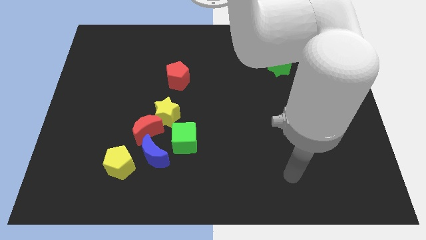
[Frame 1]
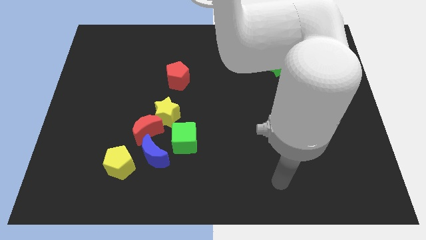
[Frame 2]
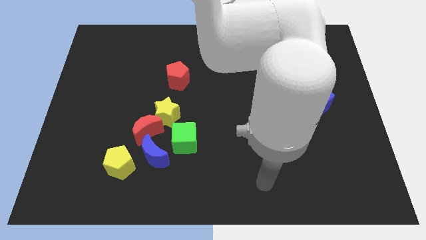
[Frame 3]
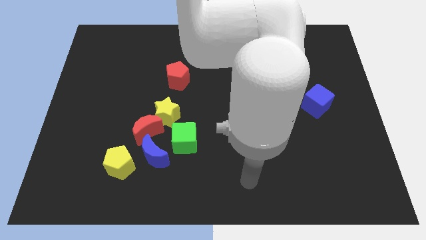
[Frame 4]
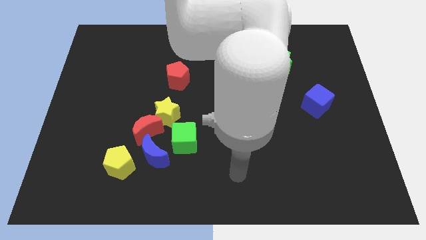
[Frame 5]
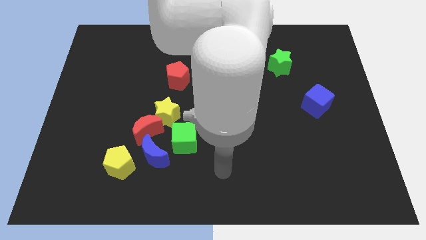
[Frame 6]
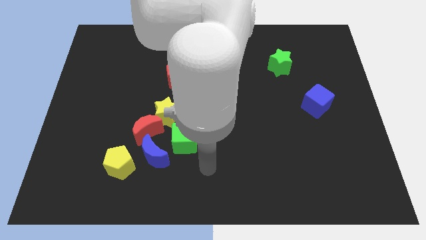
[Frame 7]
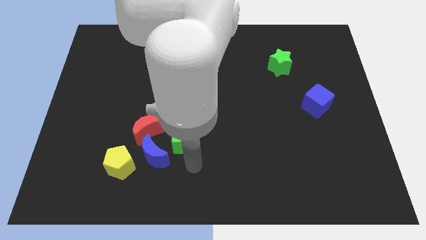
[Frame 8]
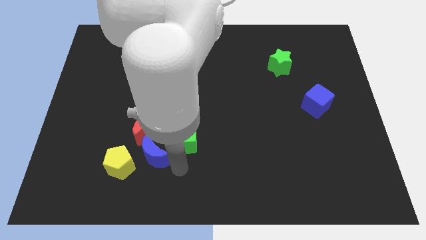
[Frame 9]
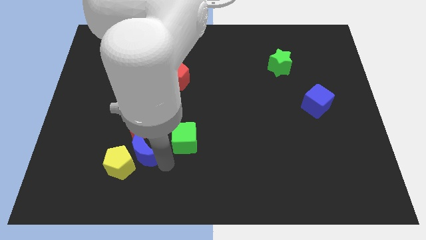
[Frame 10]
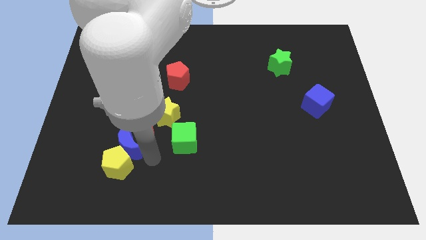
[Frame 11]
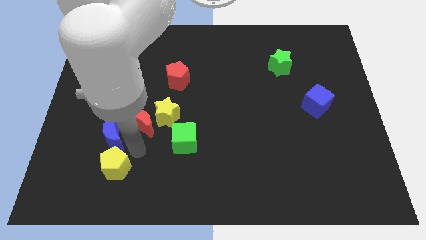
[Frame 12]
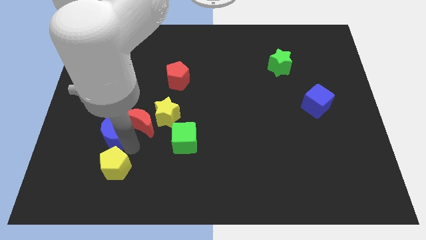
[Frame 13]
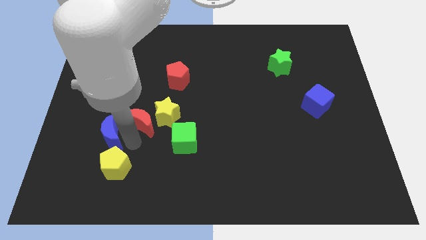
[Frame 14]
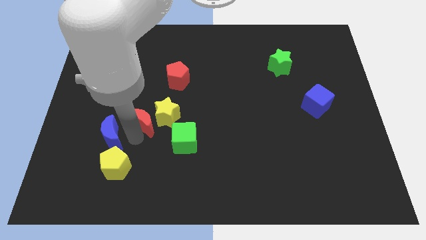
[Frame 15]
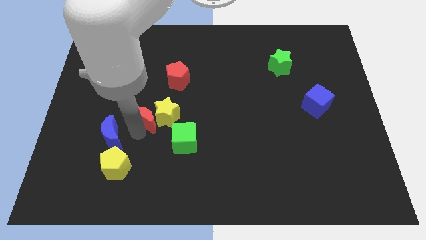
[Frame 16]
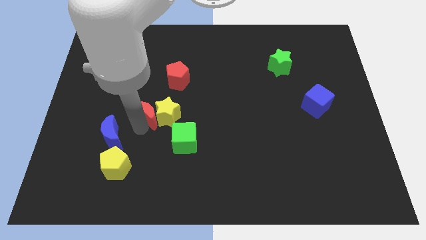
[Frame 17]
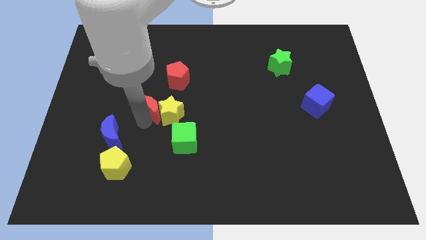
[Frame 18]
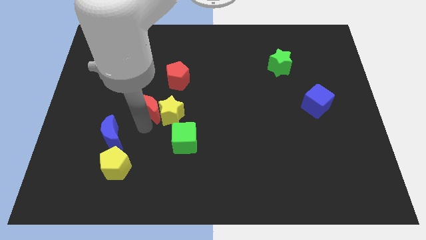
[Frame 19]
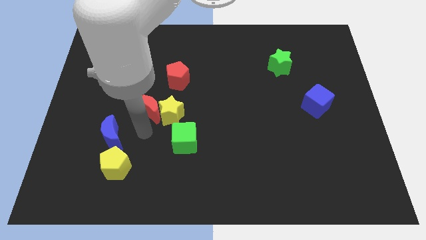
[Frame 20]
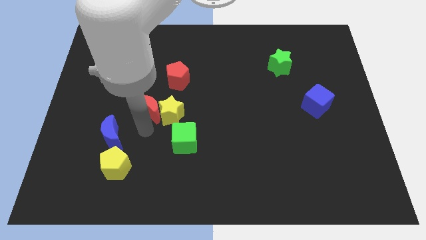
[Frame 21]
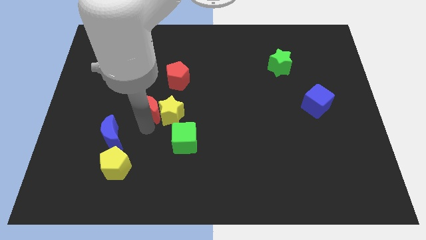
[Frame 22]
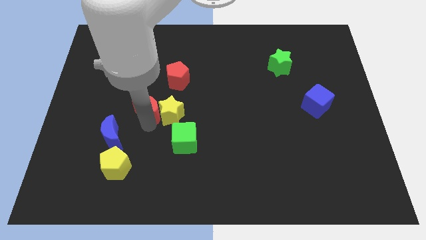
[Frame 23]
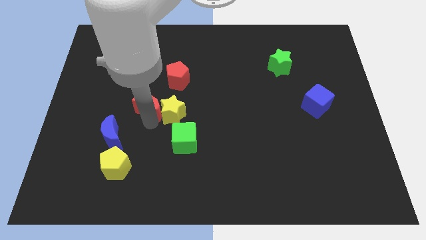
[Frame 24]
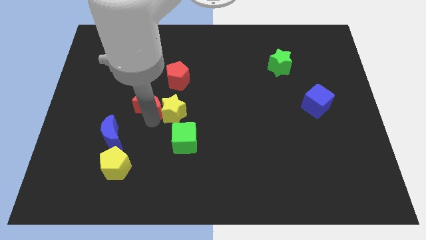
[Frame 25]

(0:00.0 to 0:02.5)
push the red moon up slightly

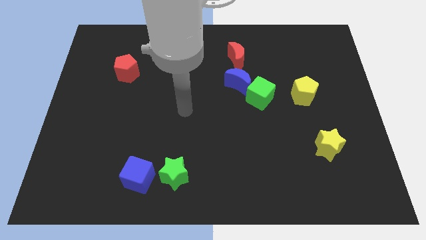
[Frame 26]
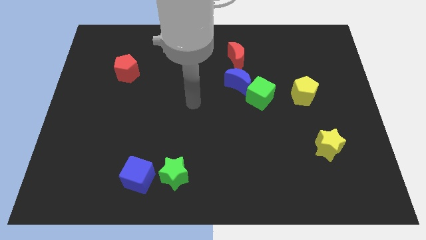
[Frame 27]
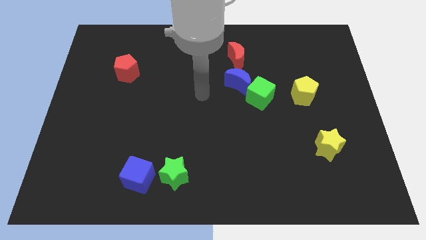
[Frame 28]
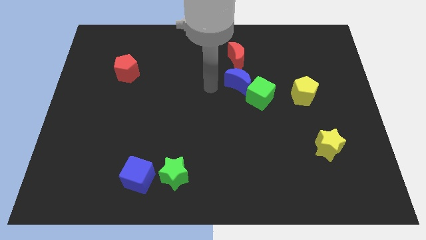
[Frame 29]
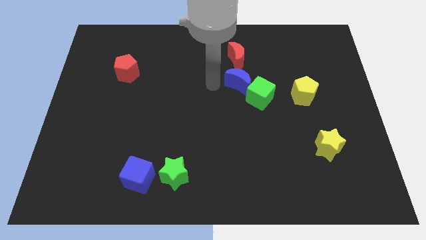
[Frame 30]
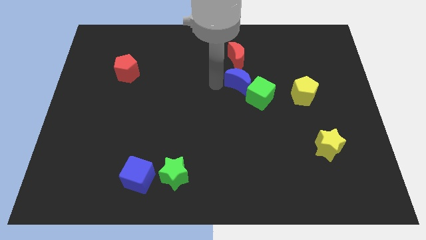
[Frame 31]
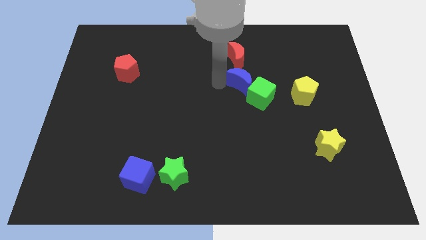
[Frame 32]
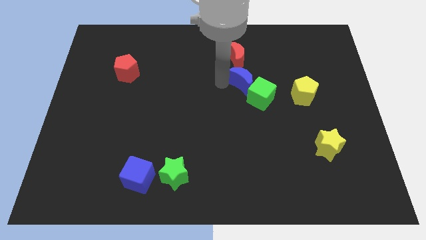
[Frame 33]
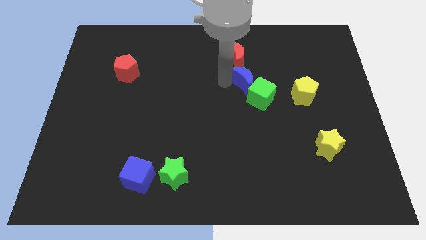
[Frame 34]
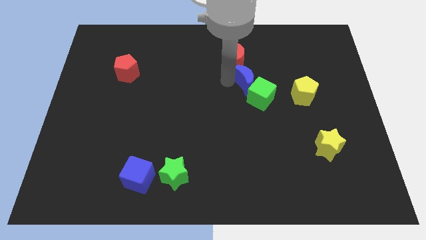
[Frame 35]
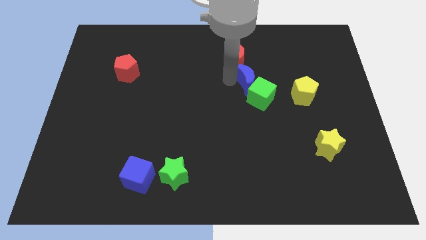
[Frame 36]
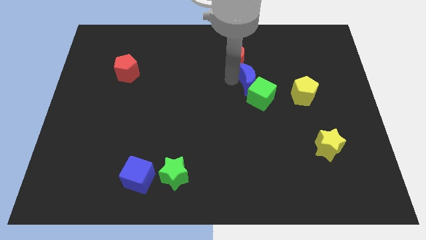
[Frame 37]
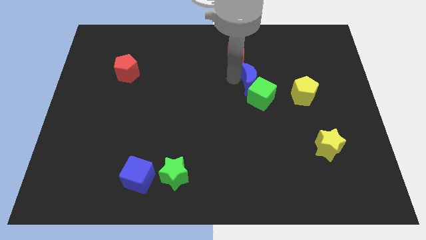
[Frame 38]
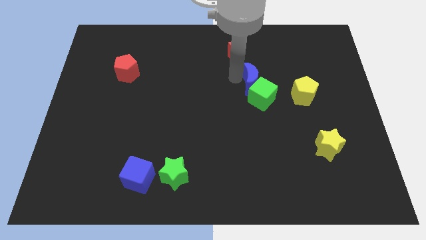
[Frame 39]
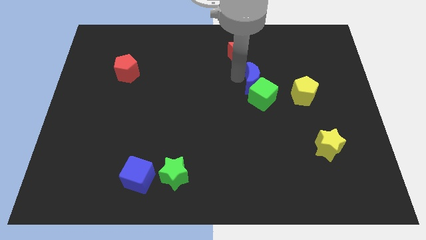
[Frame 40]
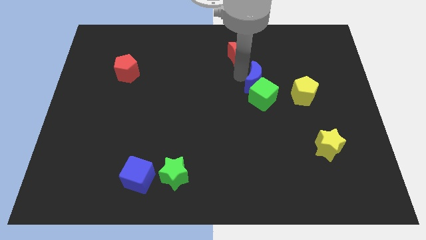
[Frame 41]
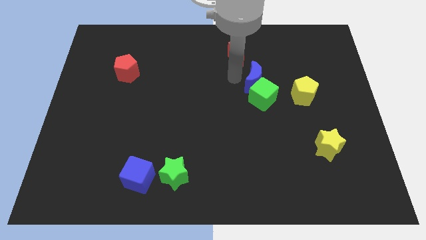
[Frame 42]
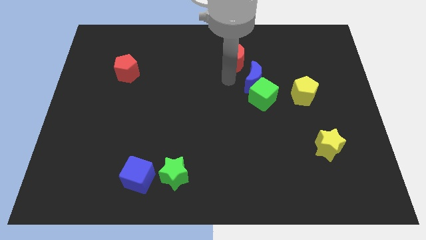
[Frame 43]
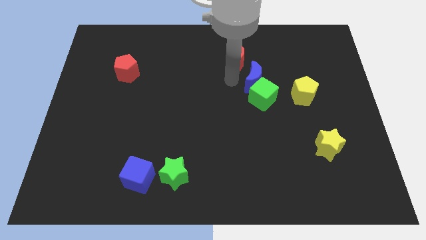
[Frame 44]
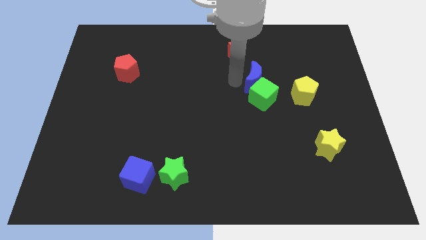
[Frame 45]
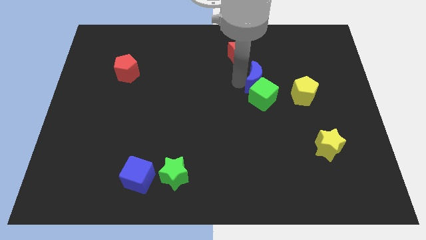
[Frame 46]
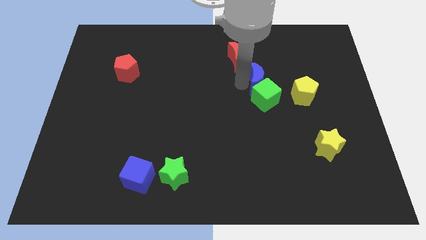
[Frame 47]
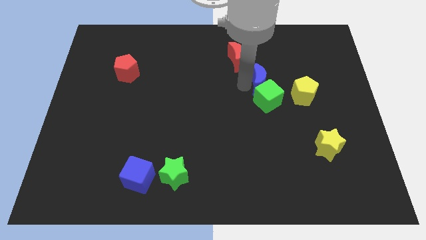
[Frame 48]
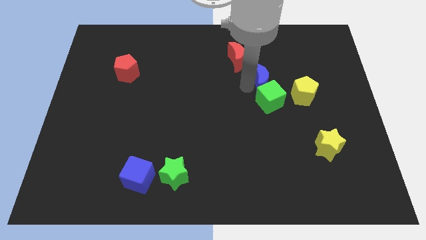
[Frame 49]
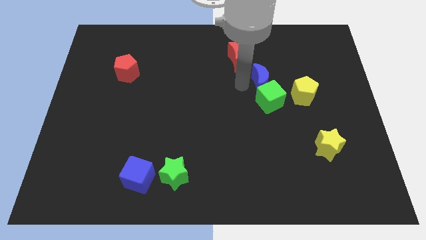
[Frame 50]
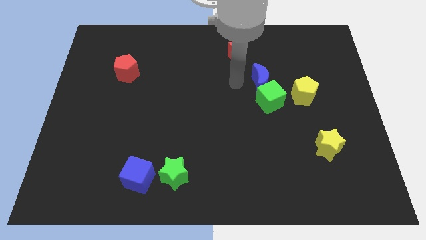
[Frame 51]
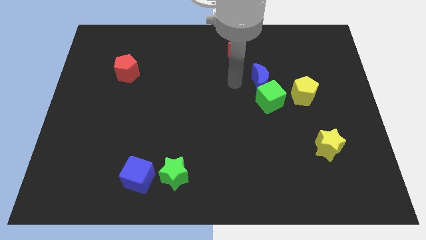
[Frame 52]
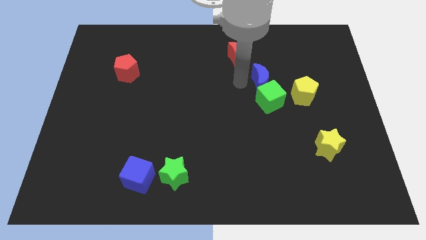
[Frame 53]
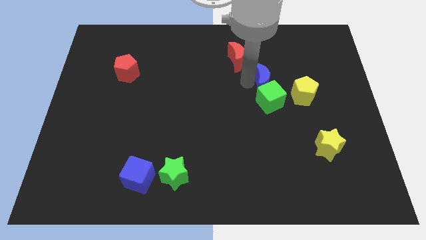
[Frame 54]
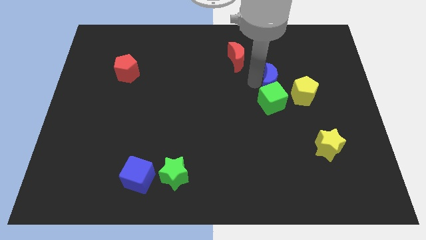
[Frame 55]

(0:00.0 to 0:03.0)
push the blue moon right a bit

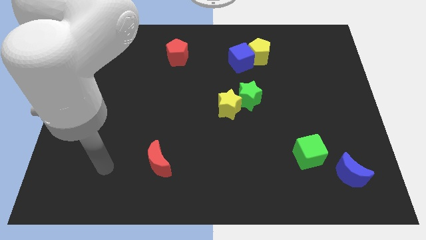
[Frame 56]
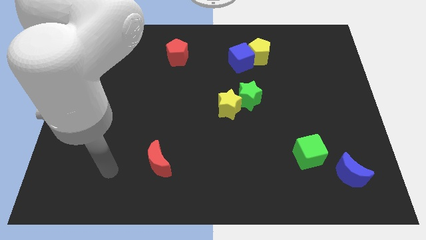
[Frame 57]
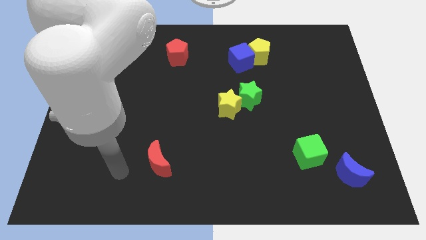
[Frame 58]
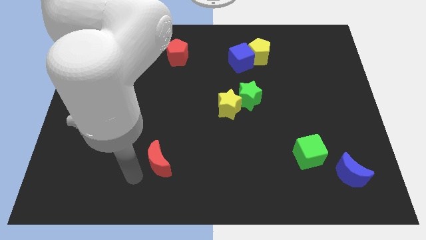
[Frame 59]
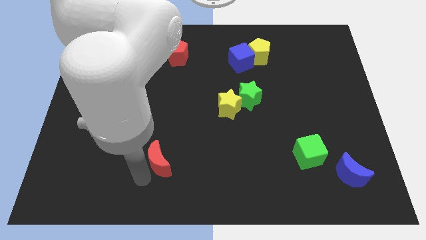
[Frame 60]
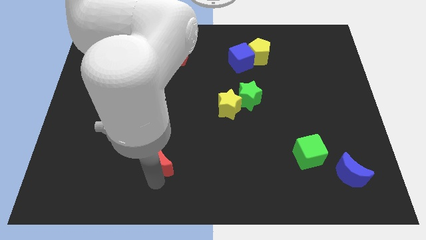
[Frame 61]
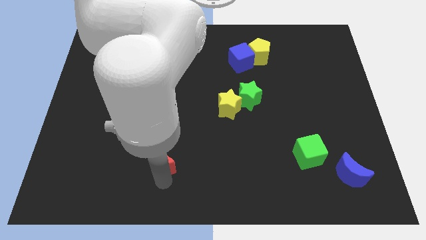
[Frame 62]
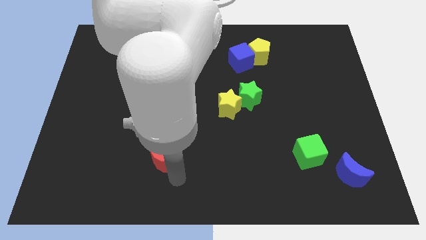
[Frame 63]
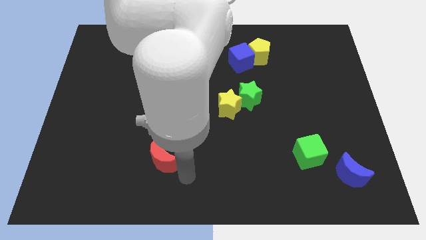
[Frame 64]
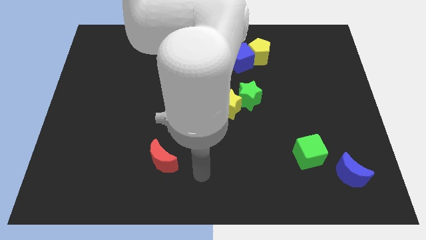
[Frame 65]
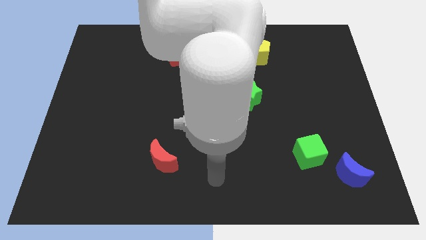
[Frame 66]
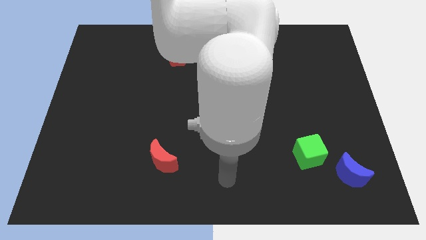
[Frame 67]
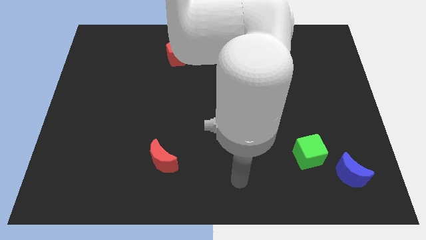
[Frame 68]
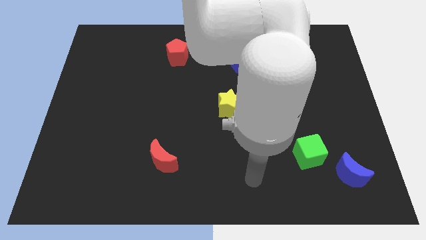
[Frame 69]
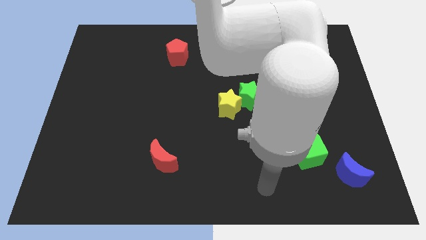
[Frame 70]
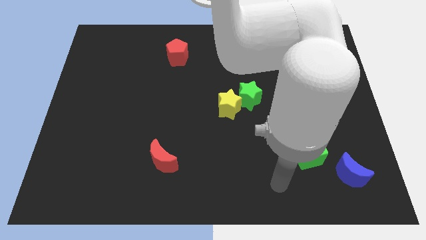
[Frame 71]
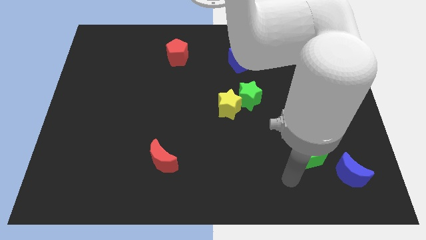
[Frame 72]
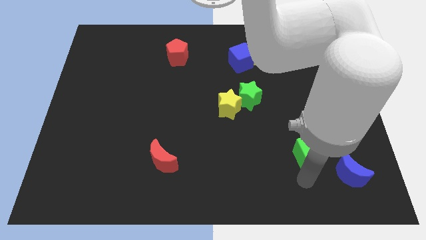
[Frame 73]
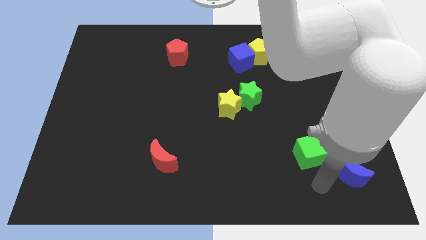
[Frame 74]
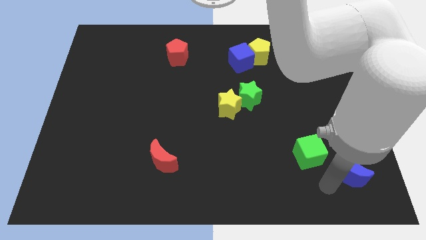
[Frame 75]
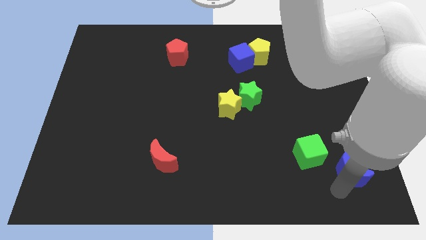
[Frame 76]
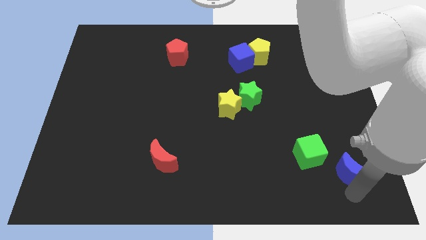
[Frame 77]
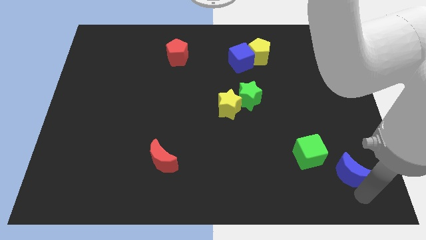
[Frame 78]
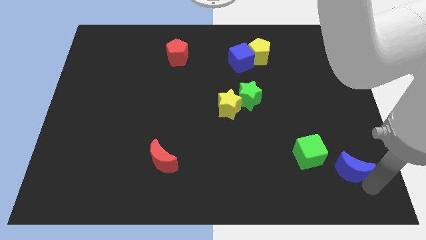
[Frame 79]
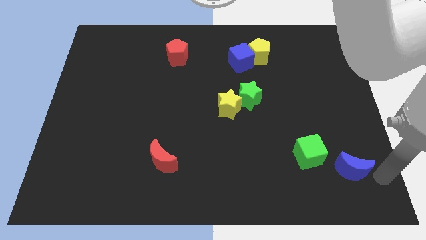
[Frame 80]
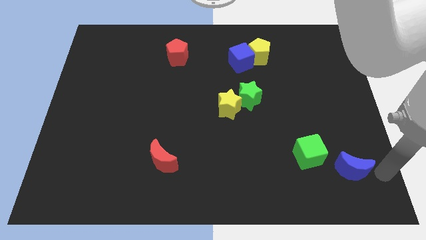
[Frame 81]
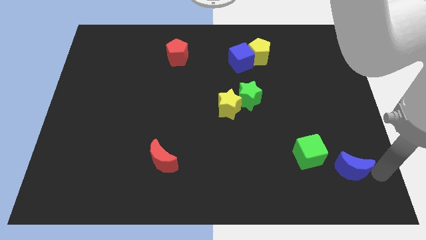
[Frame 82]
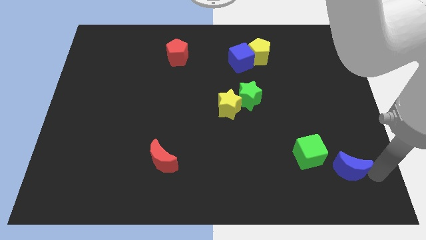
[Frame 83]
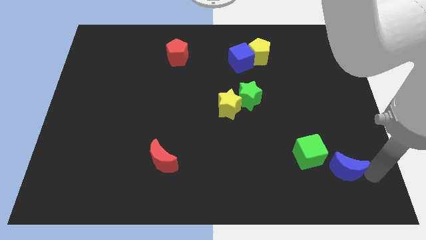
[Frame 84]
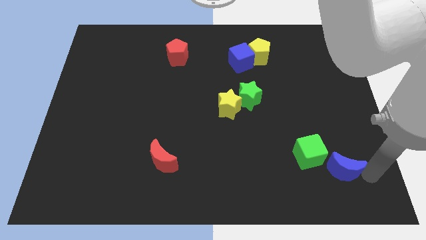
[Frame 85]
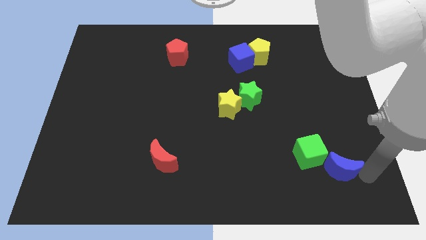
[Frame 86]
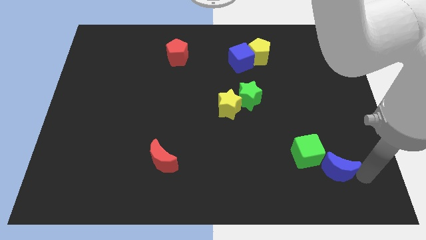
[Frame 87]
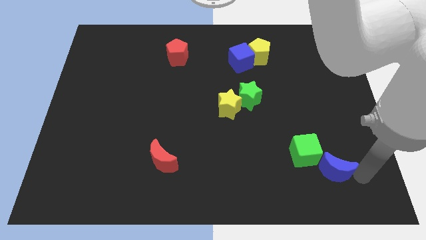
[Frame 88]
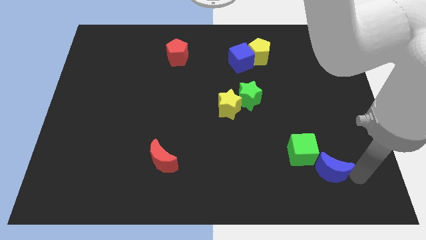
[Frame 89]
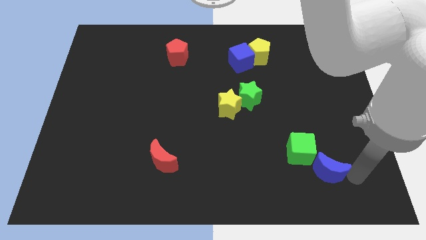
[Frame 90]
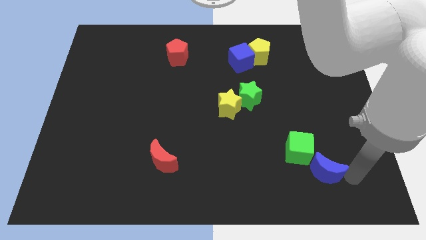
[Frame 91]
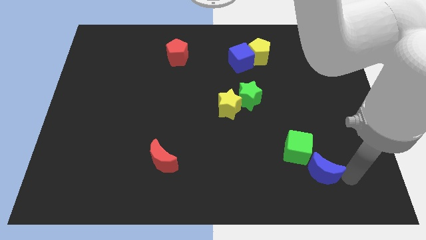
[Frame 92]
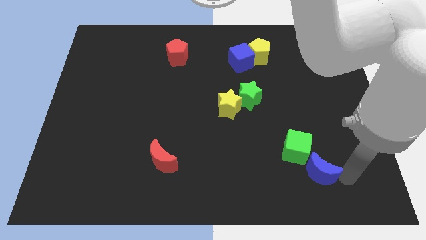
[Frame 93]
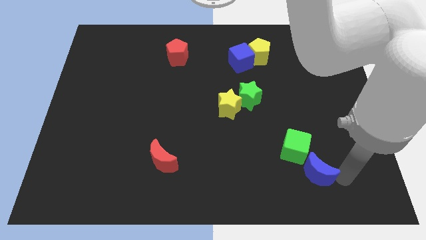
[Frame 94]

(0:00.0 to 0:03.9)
slide the blue moon somewhat left
